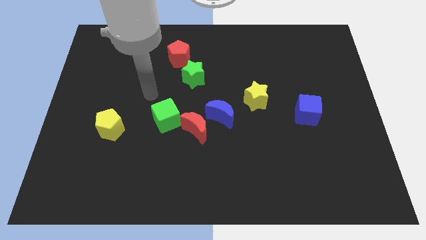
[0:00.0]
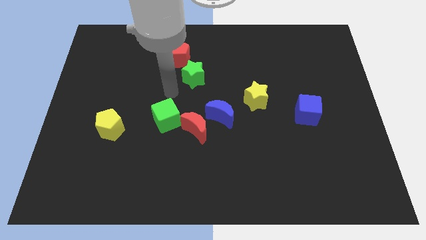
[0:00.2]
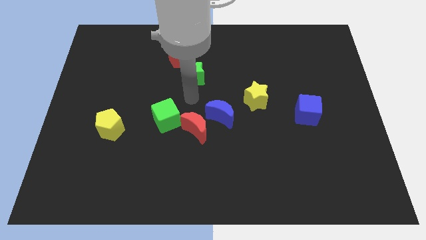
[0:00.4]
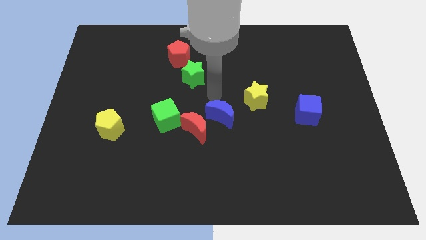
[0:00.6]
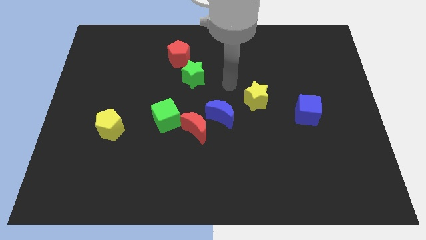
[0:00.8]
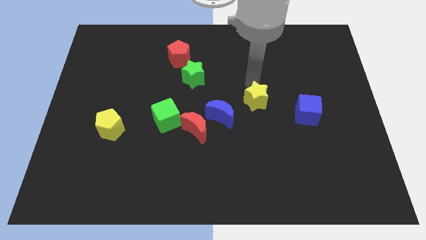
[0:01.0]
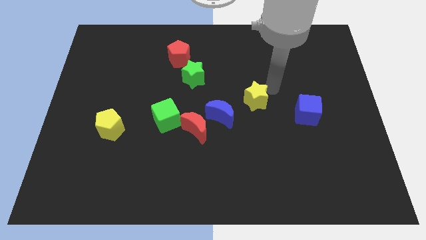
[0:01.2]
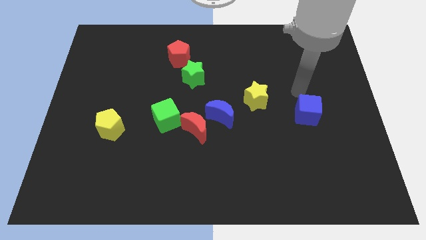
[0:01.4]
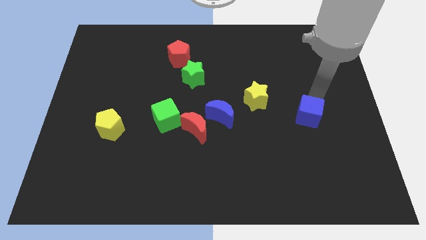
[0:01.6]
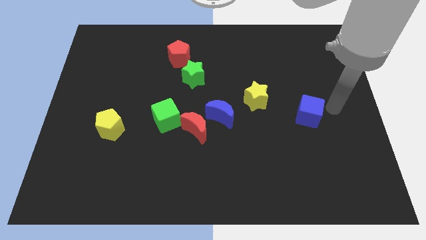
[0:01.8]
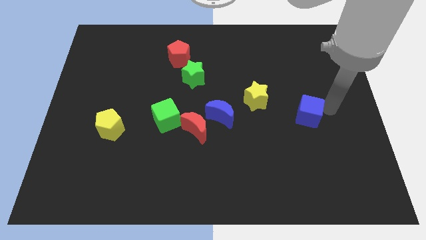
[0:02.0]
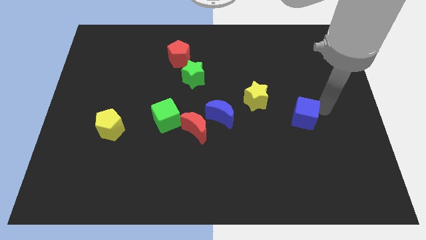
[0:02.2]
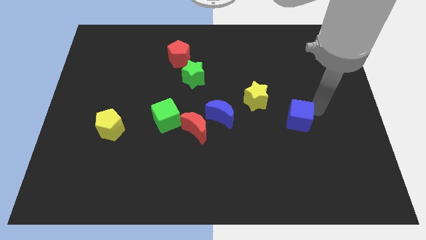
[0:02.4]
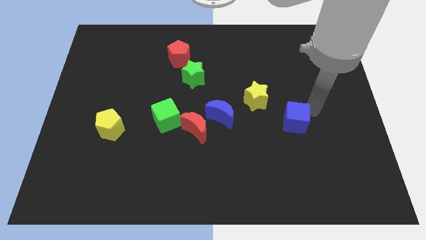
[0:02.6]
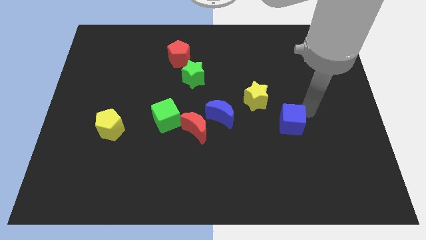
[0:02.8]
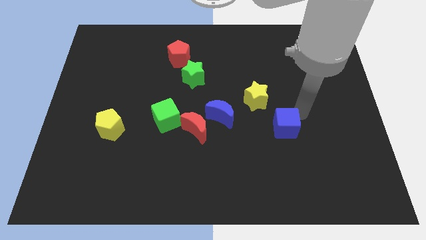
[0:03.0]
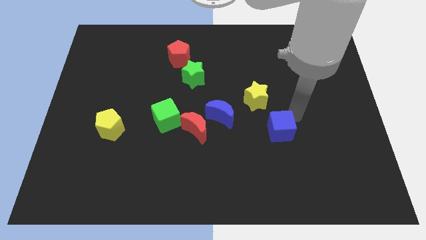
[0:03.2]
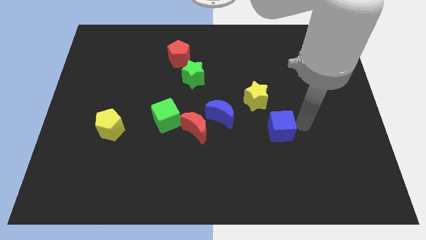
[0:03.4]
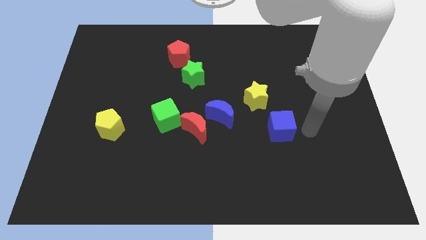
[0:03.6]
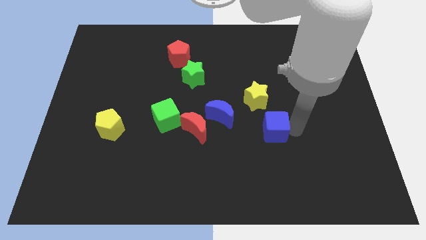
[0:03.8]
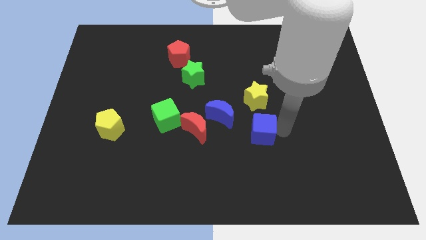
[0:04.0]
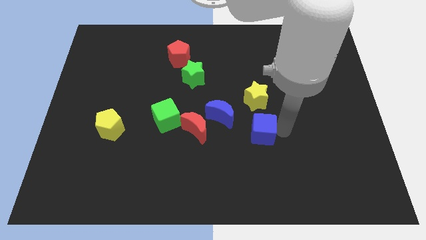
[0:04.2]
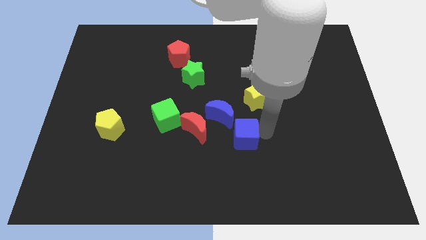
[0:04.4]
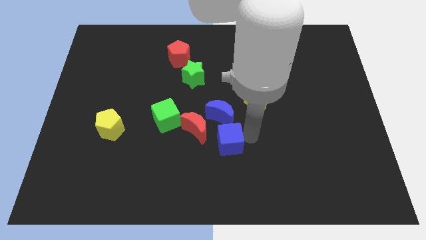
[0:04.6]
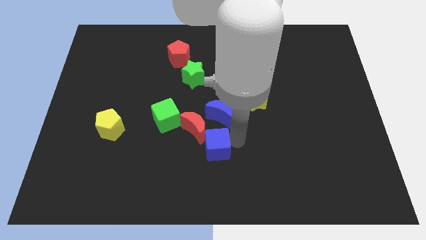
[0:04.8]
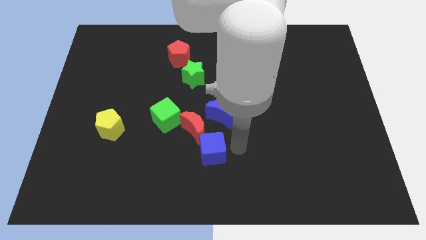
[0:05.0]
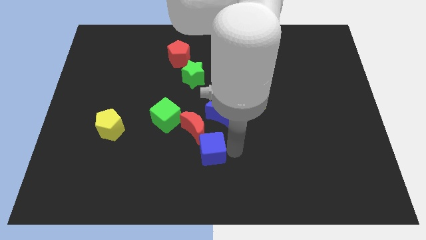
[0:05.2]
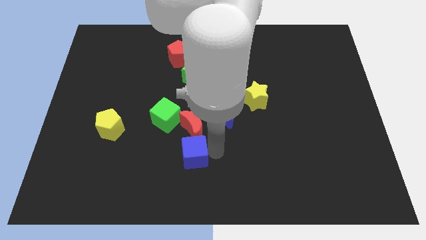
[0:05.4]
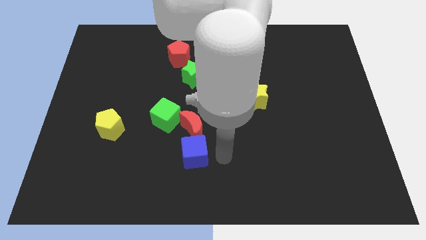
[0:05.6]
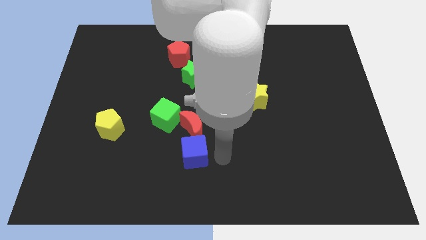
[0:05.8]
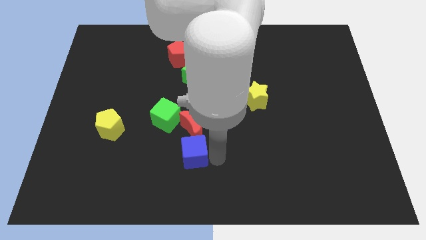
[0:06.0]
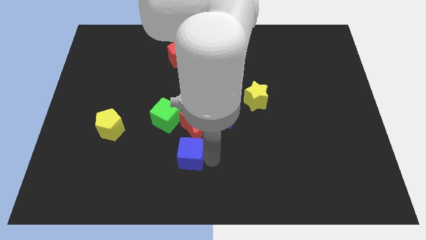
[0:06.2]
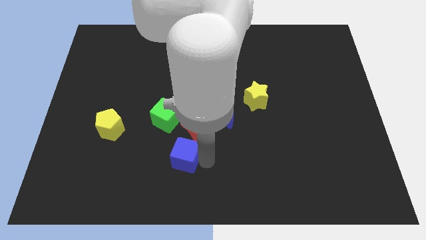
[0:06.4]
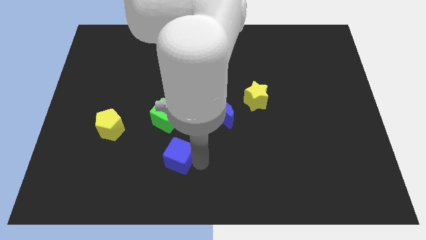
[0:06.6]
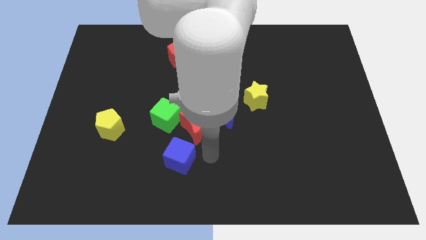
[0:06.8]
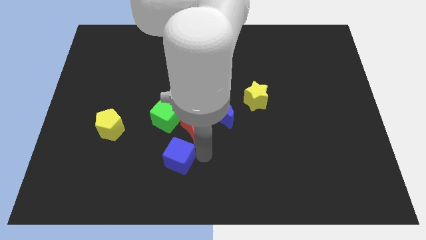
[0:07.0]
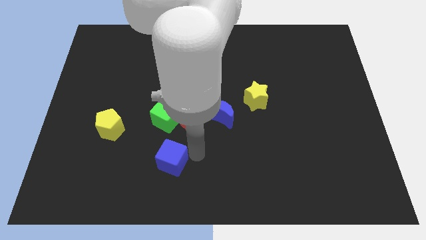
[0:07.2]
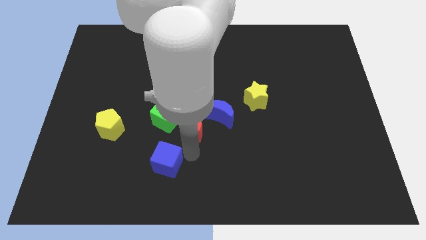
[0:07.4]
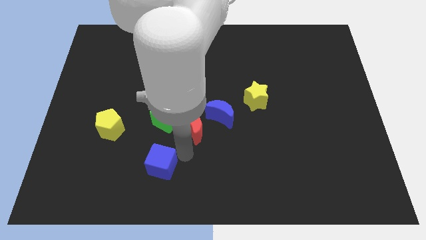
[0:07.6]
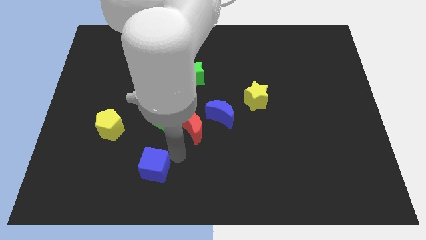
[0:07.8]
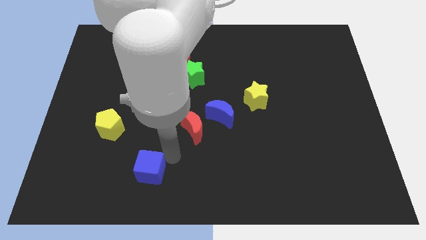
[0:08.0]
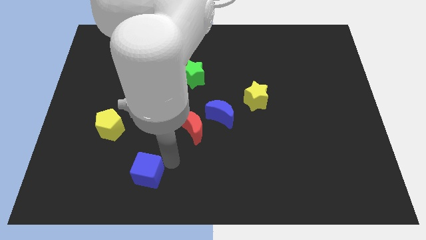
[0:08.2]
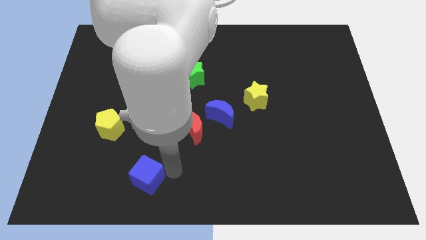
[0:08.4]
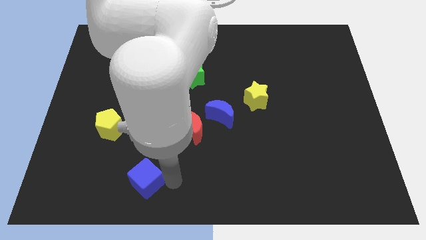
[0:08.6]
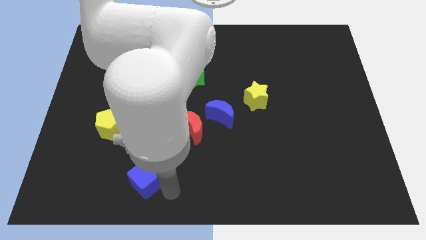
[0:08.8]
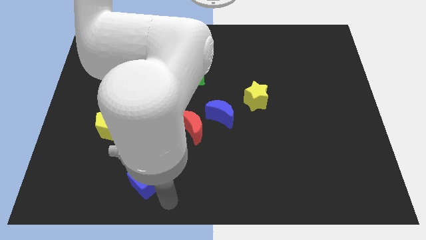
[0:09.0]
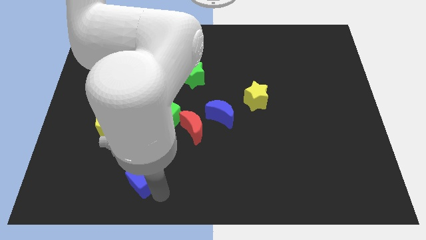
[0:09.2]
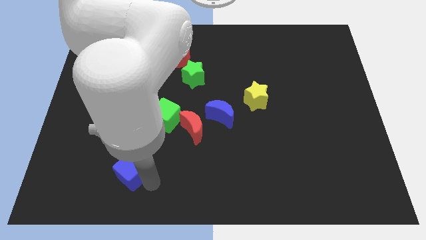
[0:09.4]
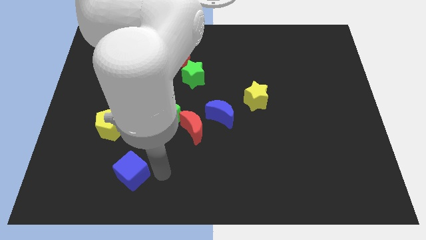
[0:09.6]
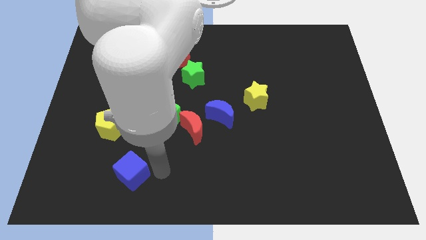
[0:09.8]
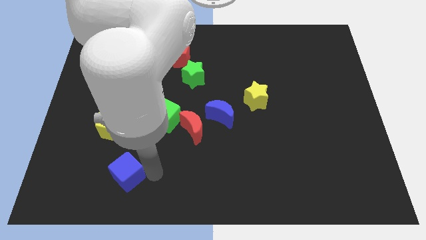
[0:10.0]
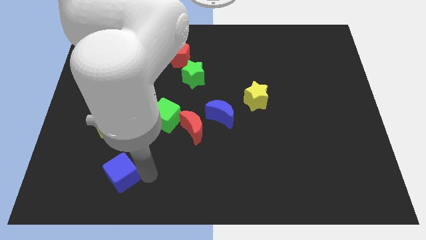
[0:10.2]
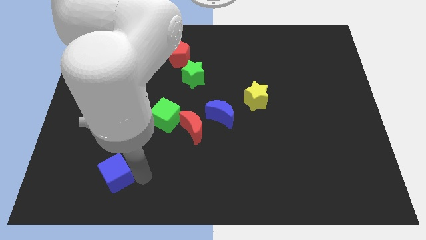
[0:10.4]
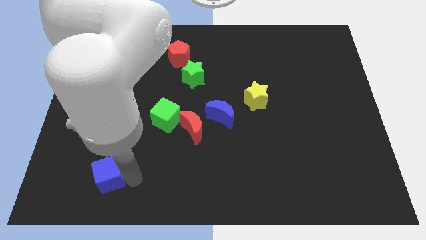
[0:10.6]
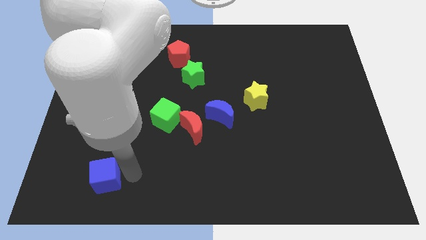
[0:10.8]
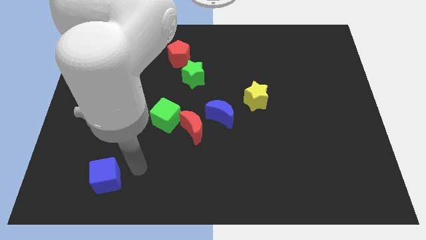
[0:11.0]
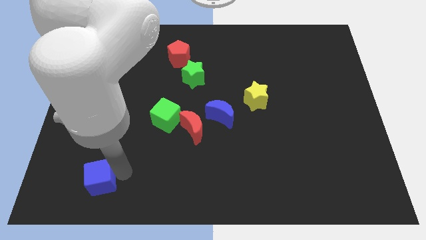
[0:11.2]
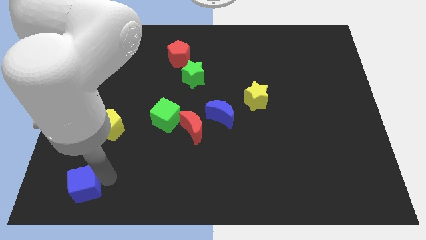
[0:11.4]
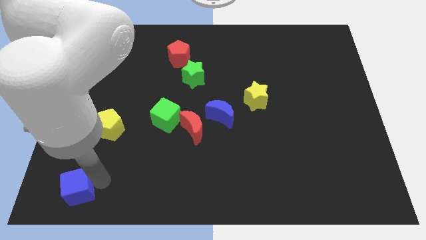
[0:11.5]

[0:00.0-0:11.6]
put the blue cube to the lower left corner

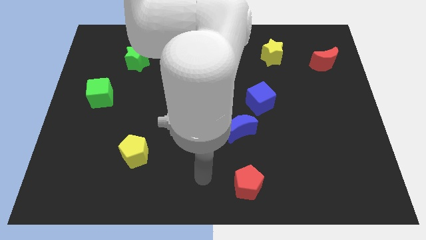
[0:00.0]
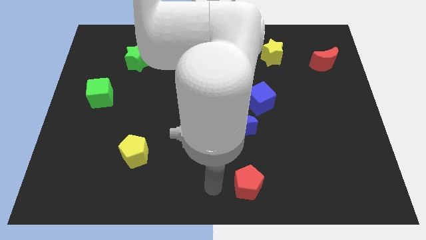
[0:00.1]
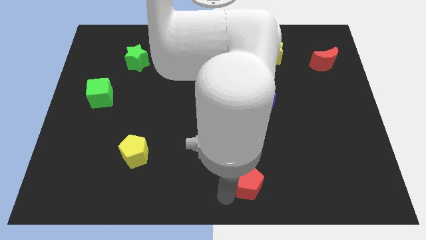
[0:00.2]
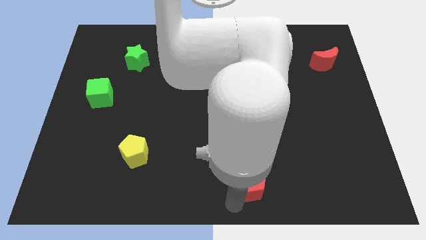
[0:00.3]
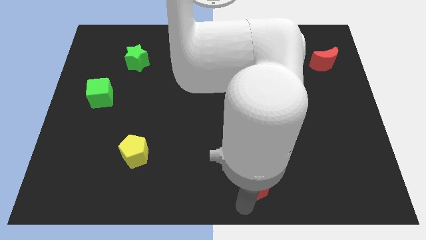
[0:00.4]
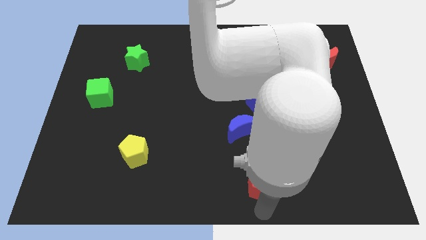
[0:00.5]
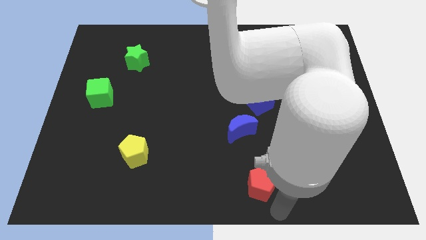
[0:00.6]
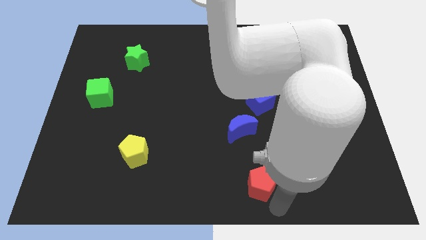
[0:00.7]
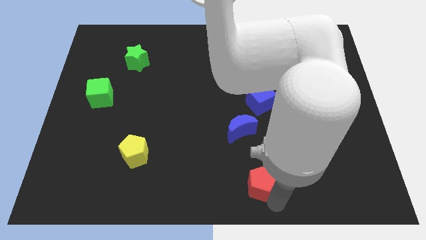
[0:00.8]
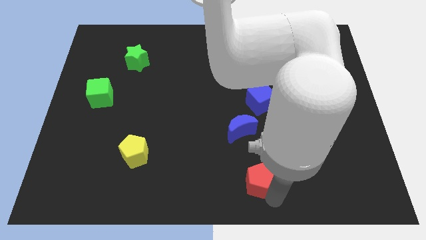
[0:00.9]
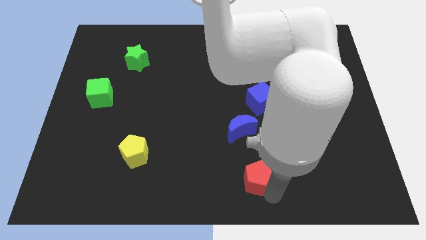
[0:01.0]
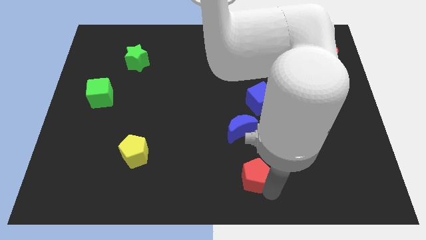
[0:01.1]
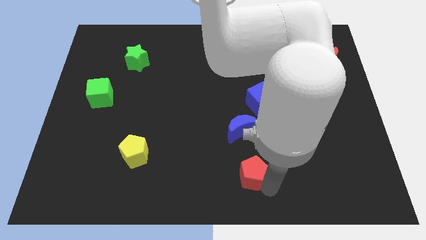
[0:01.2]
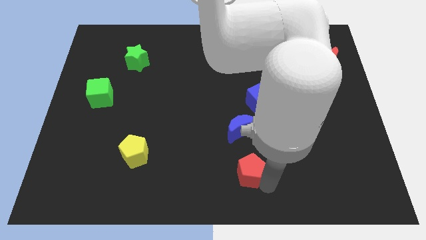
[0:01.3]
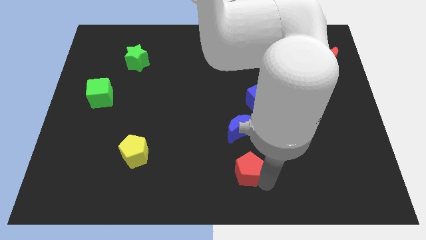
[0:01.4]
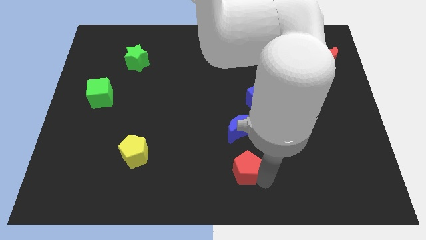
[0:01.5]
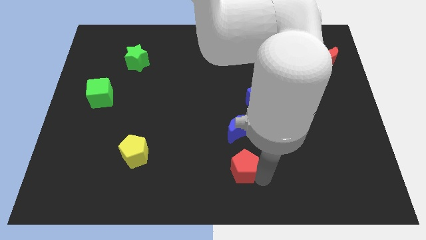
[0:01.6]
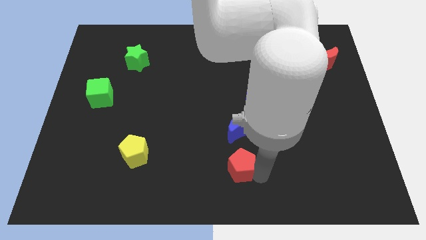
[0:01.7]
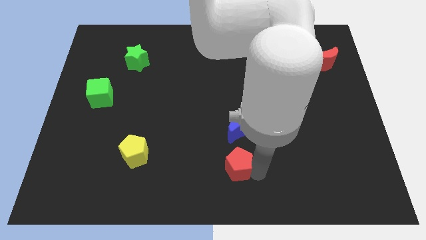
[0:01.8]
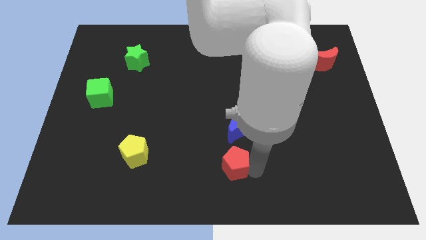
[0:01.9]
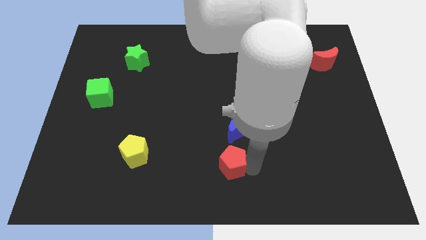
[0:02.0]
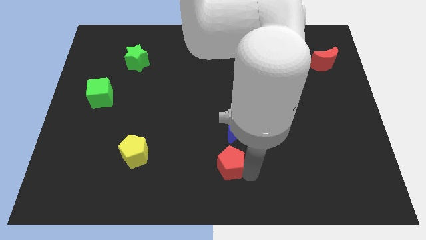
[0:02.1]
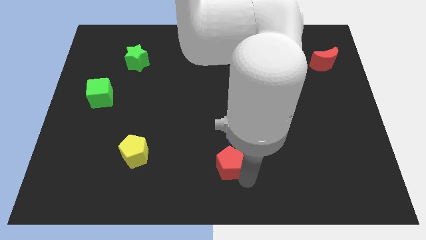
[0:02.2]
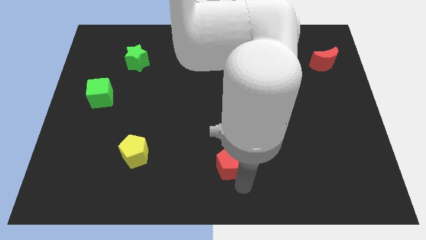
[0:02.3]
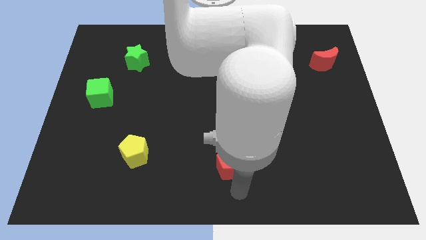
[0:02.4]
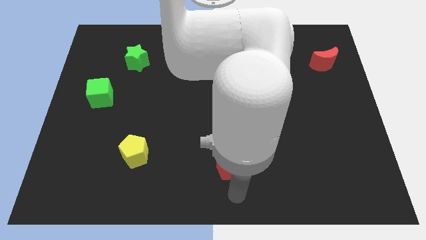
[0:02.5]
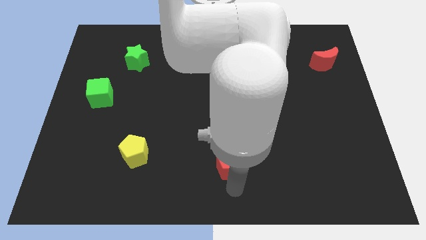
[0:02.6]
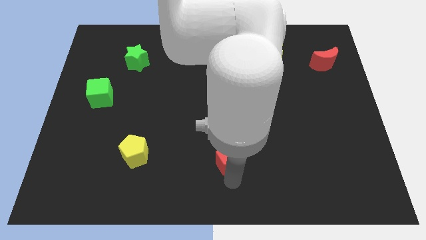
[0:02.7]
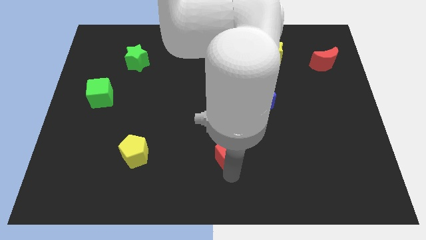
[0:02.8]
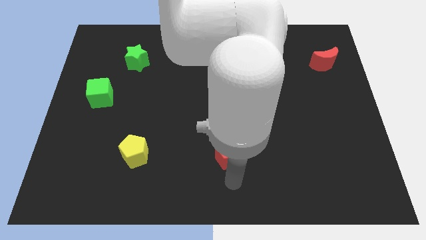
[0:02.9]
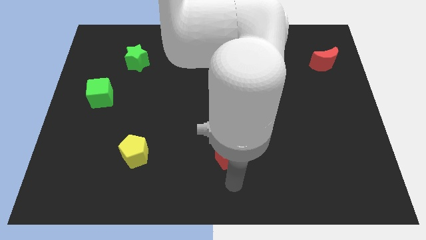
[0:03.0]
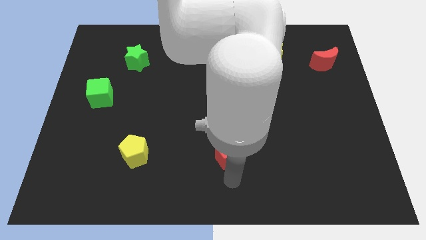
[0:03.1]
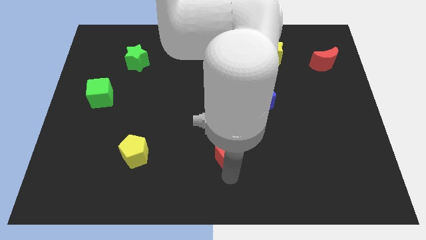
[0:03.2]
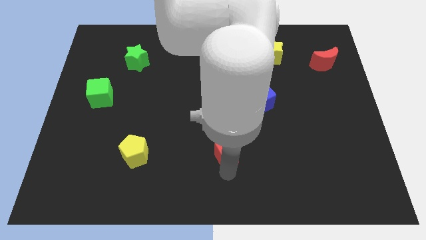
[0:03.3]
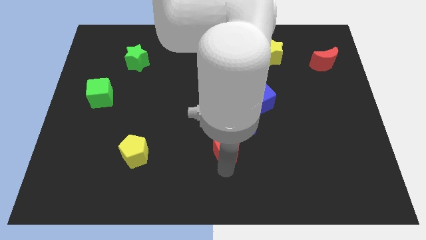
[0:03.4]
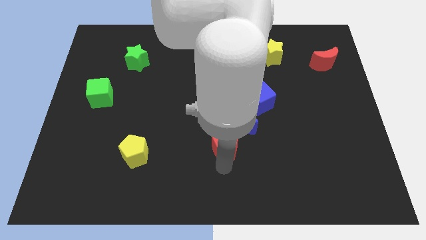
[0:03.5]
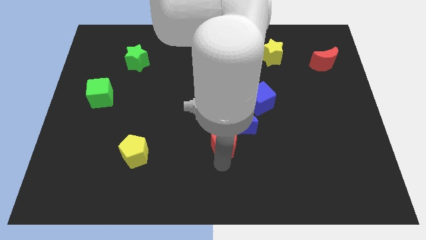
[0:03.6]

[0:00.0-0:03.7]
move the red pentagon to the middle of the board
